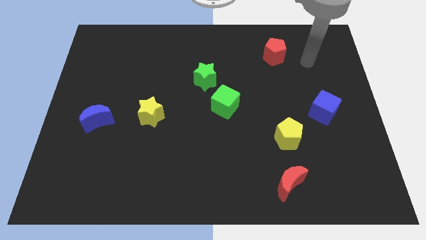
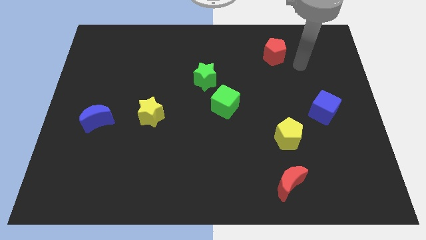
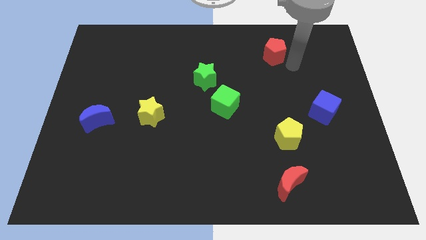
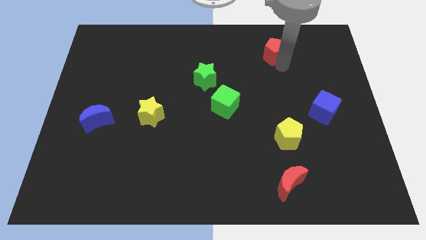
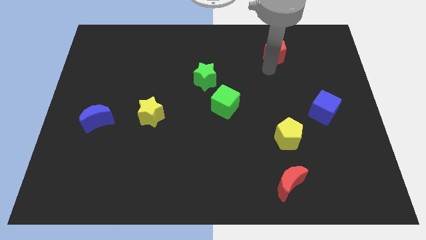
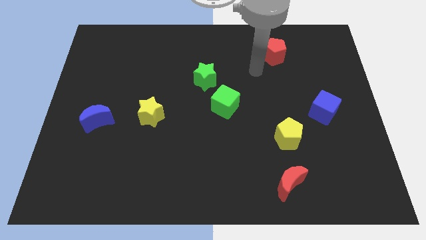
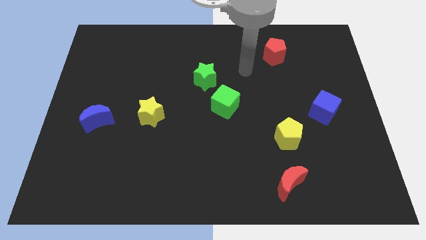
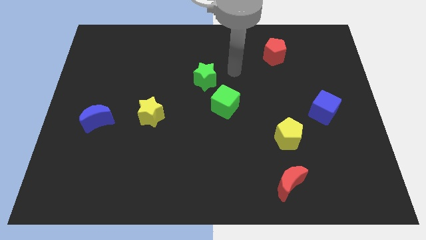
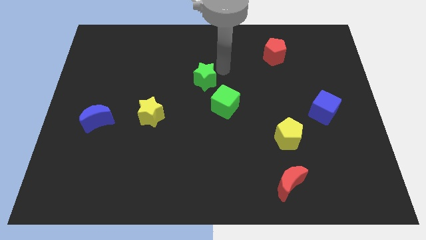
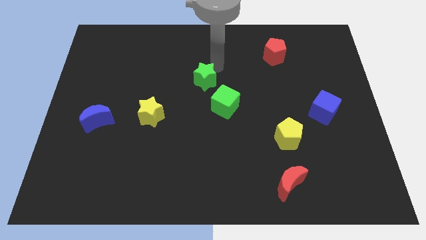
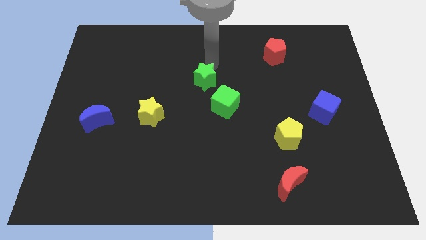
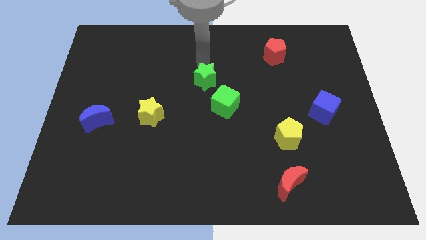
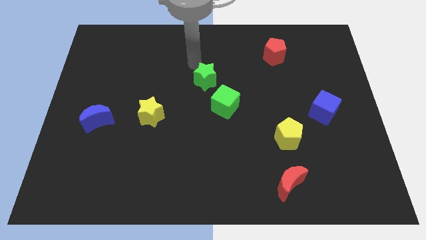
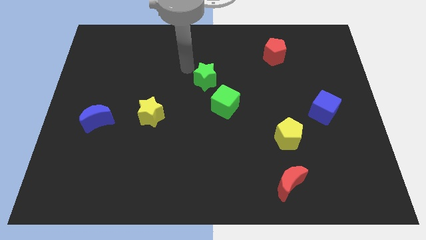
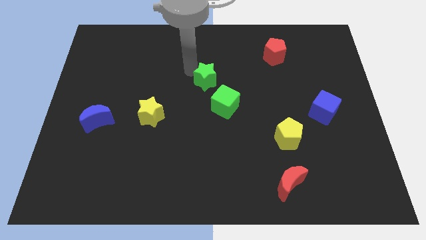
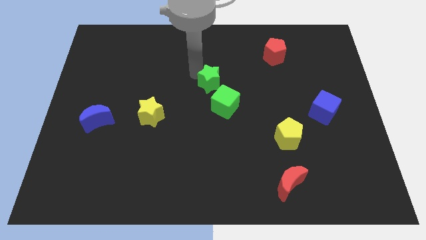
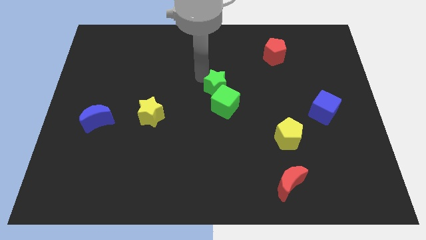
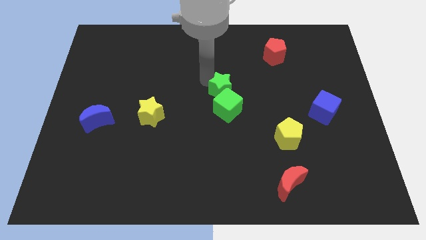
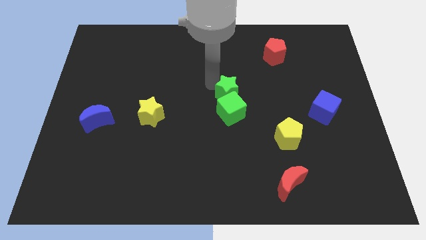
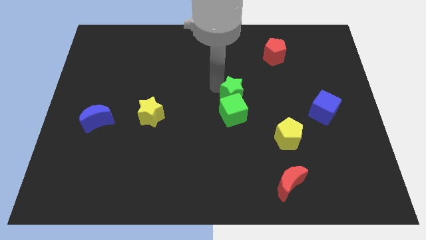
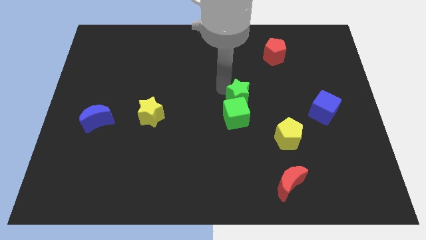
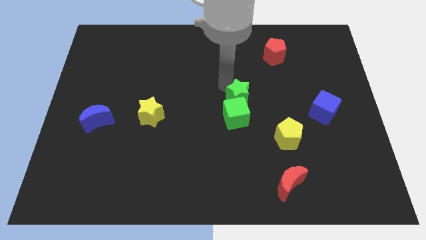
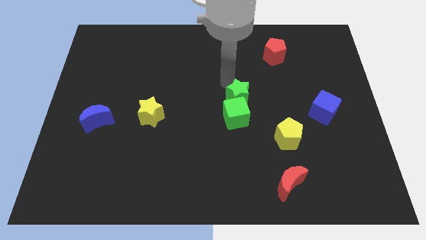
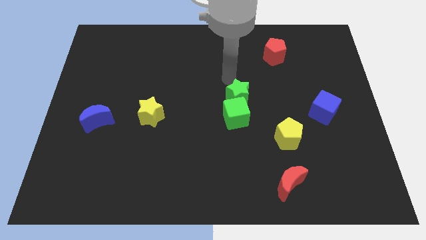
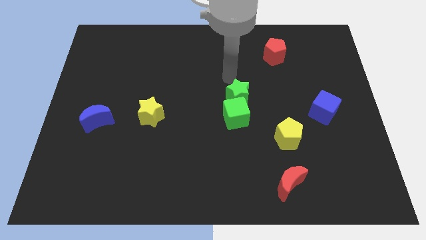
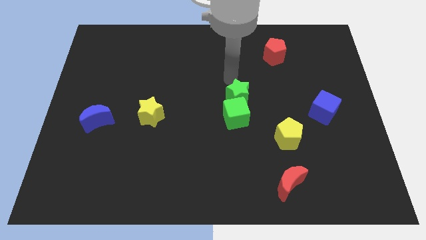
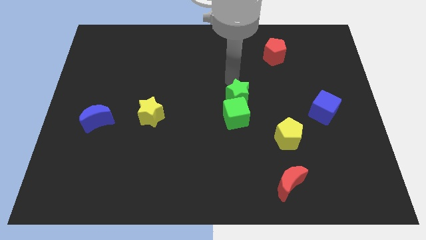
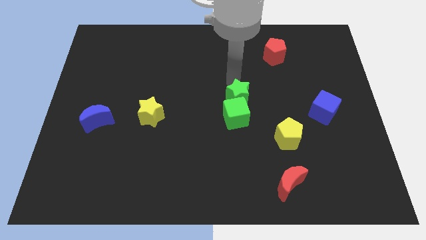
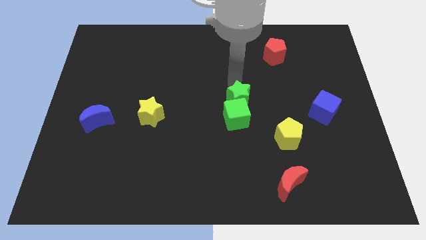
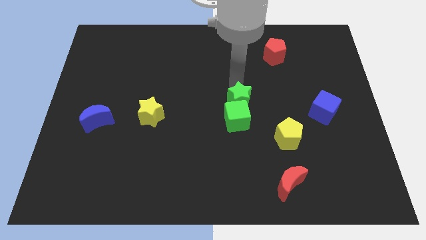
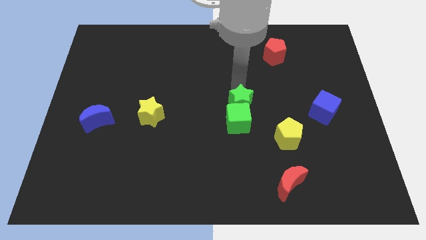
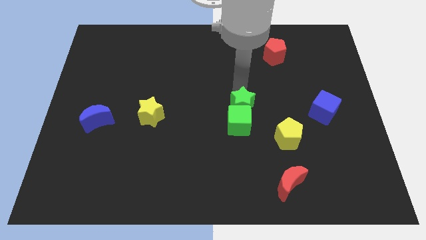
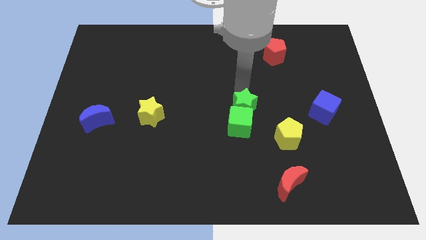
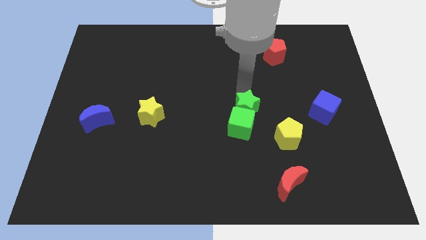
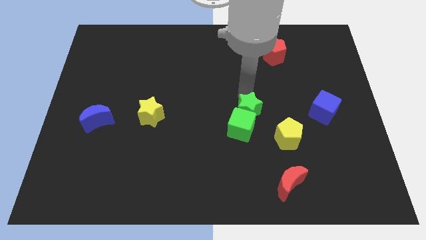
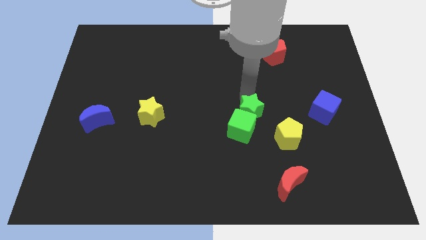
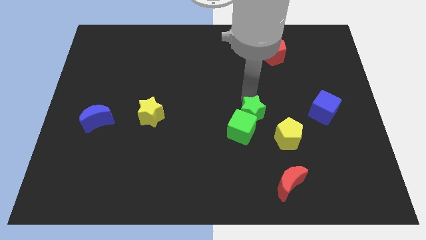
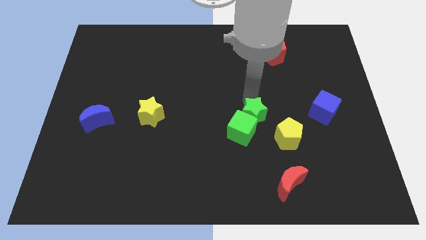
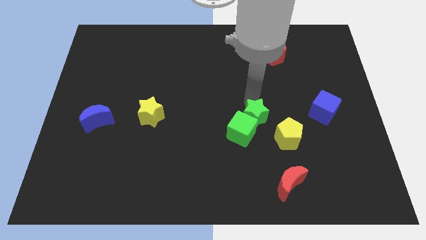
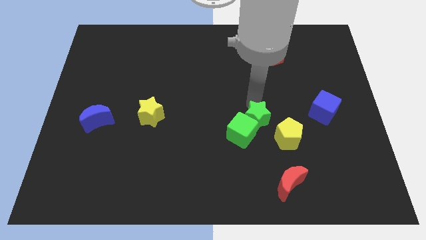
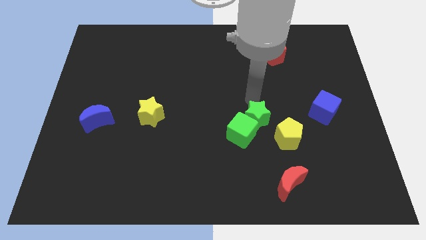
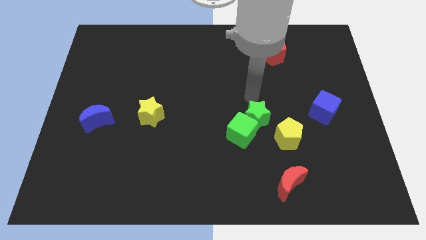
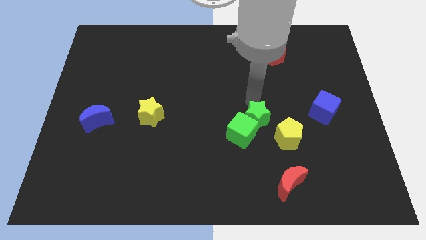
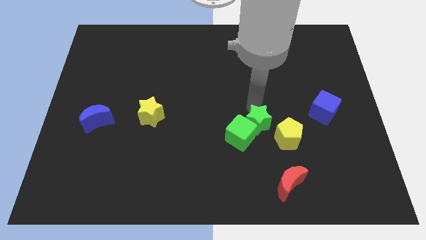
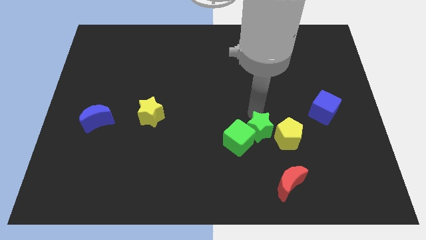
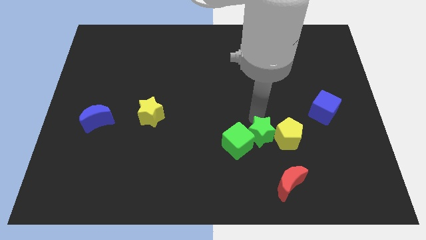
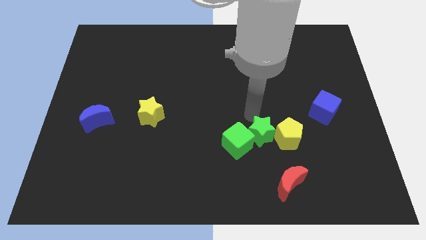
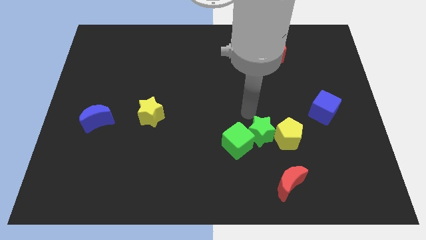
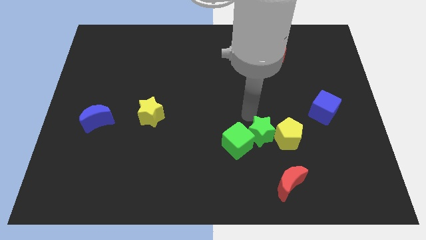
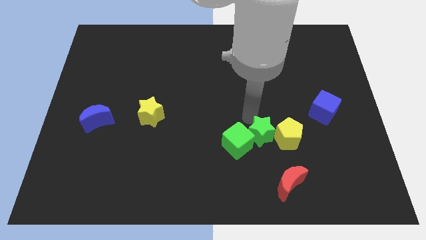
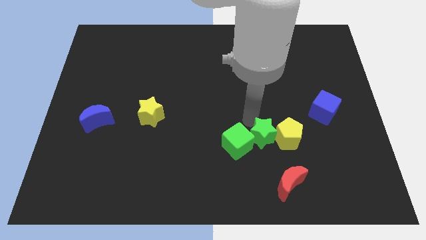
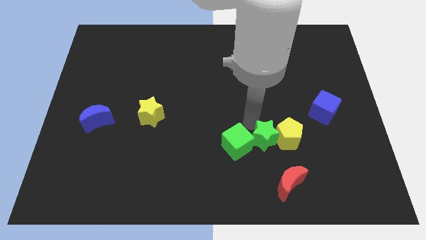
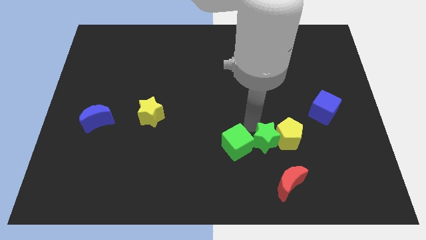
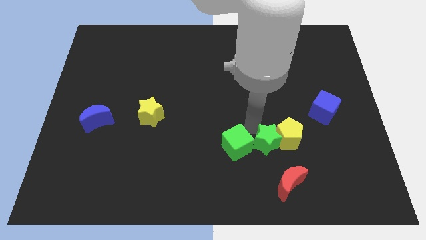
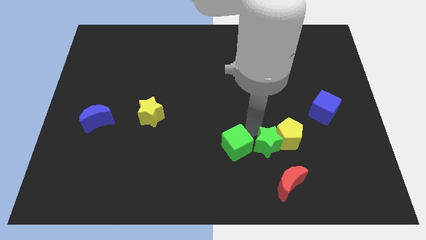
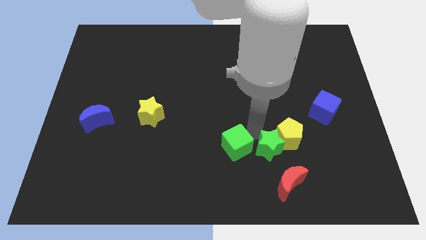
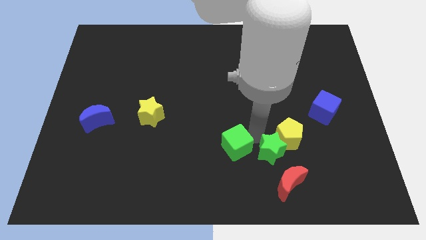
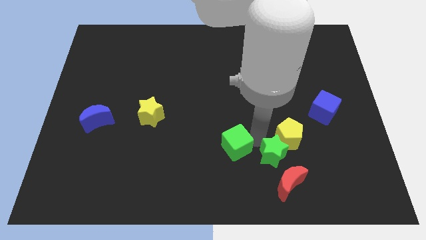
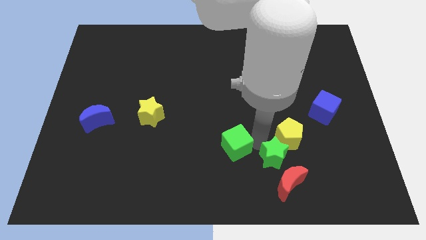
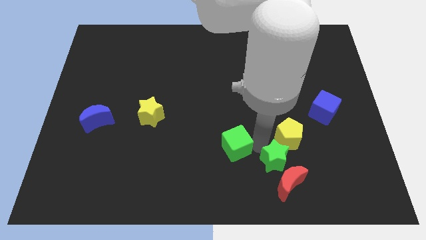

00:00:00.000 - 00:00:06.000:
put the green star next to the red moon

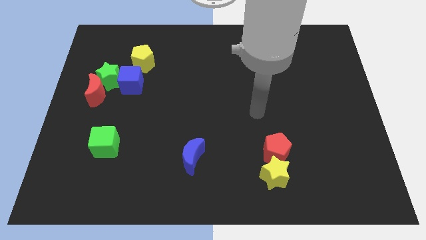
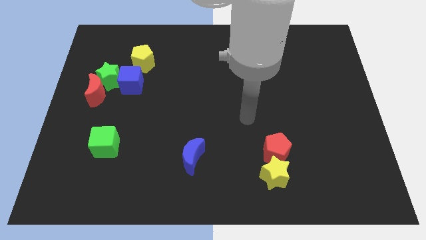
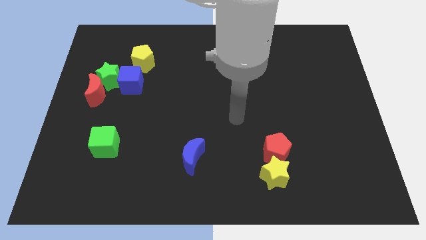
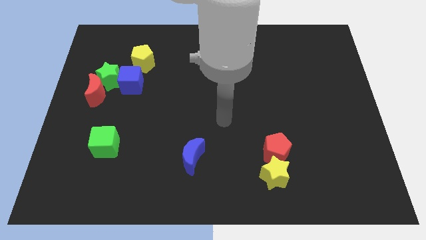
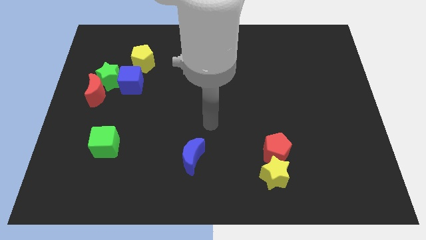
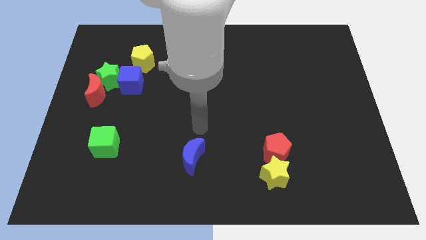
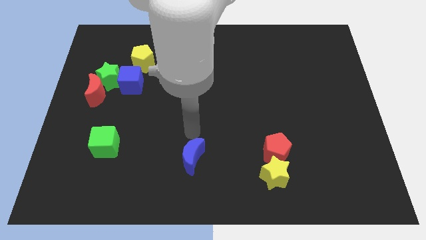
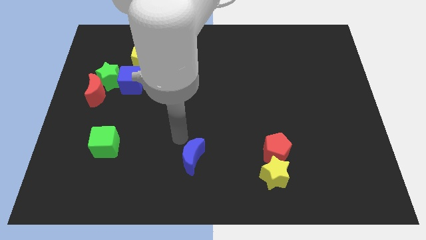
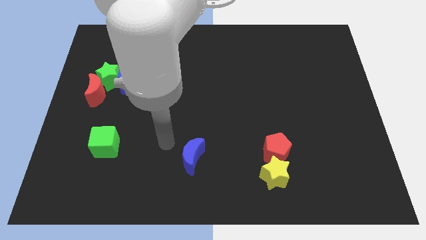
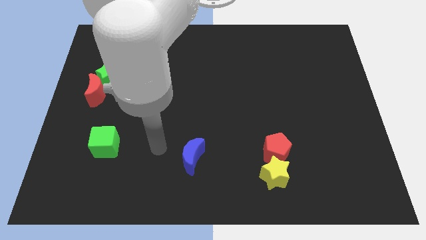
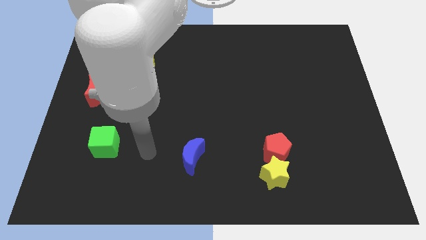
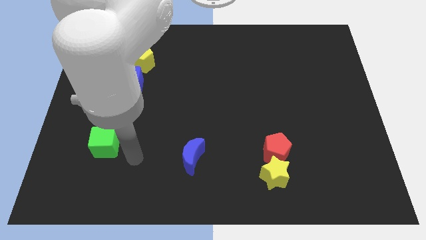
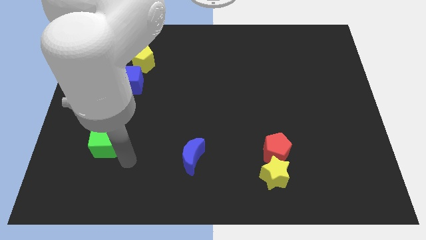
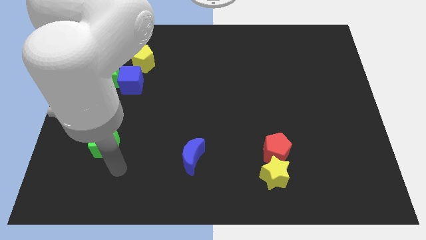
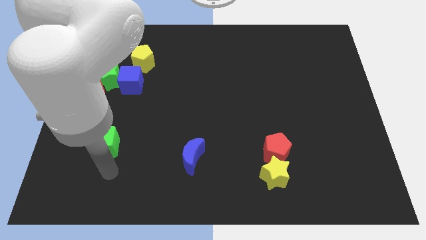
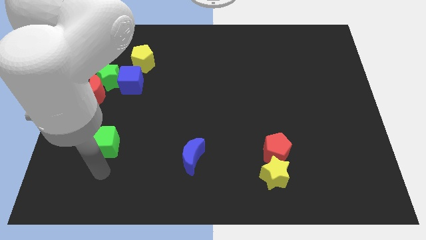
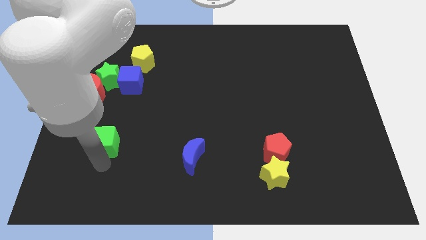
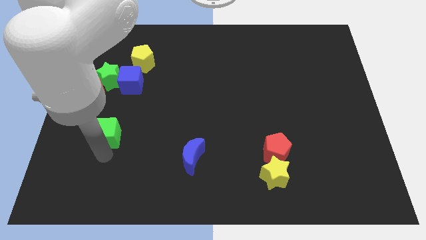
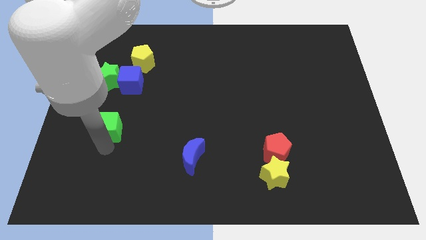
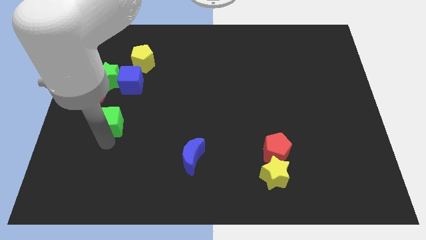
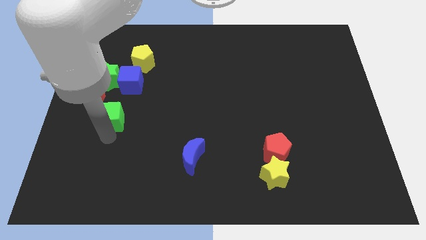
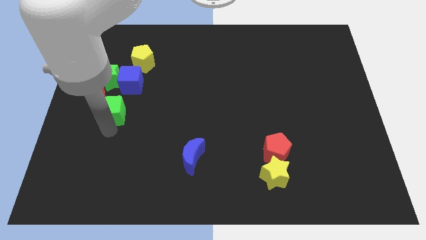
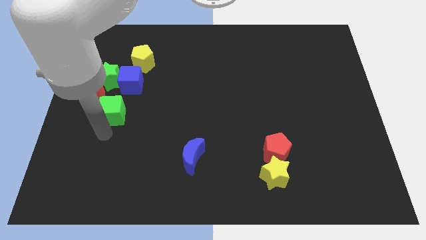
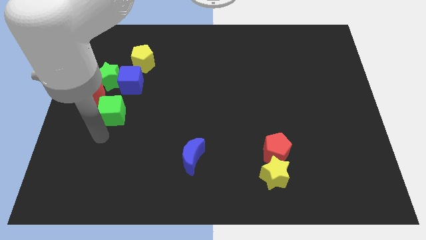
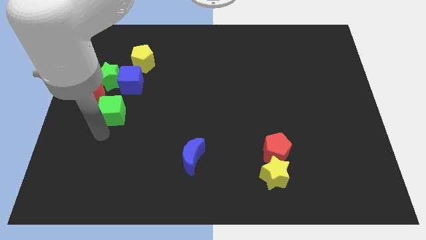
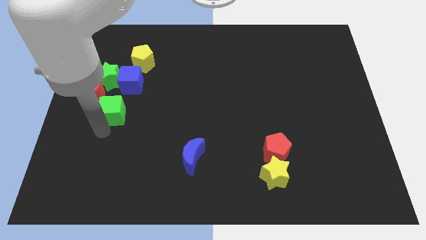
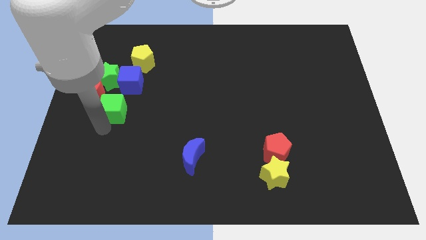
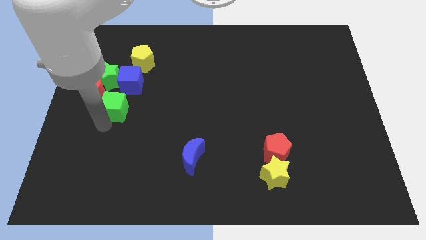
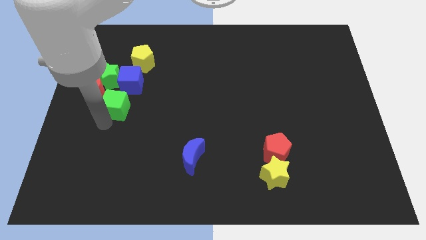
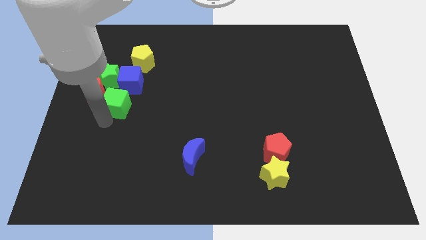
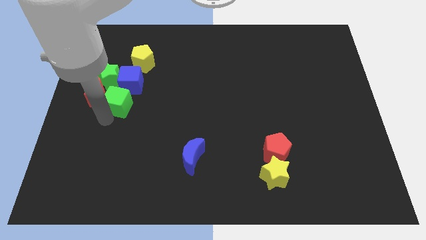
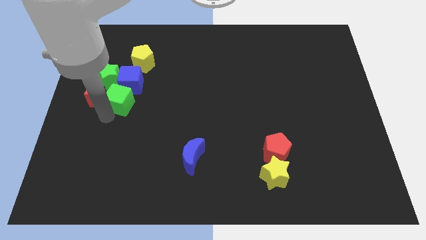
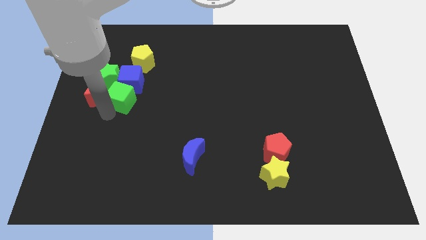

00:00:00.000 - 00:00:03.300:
push the green cube to the blue cube
